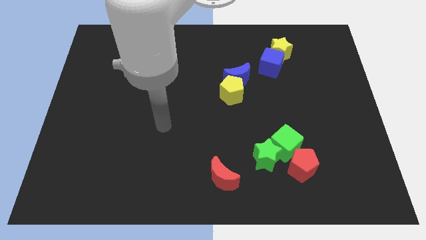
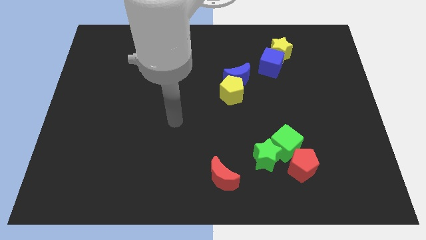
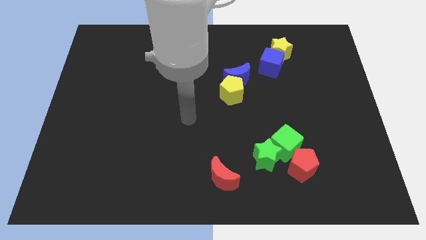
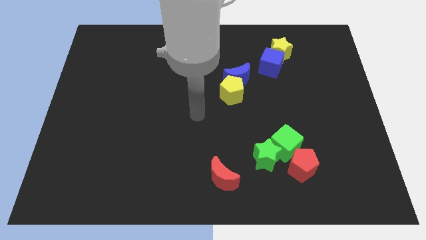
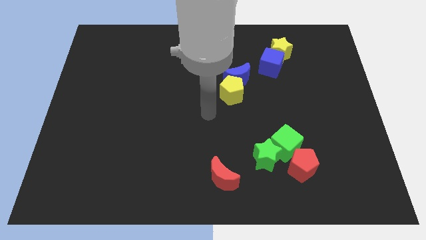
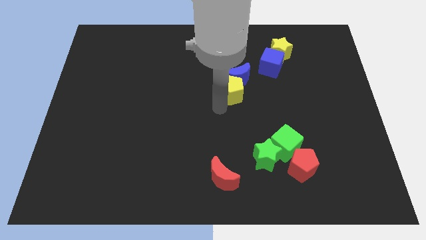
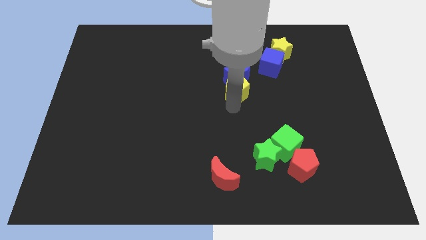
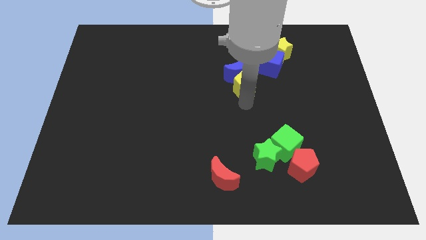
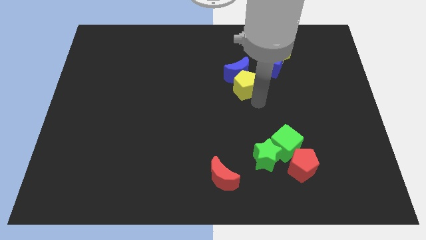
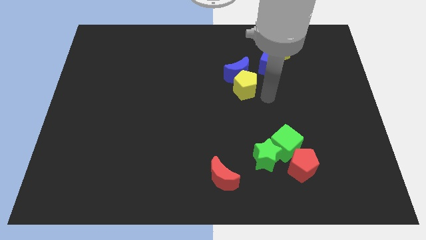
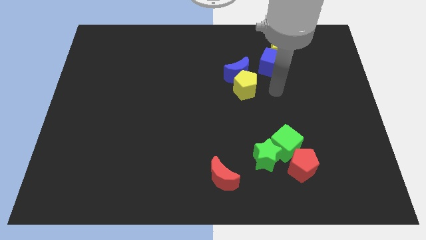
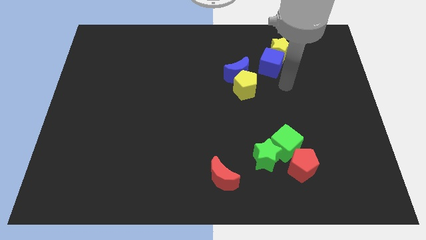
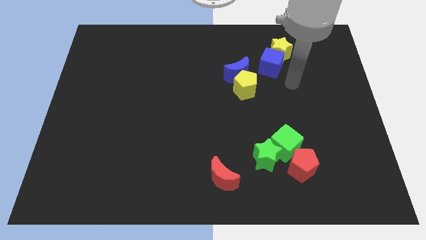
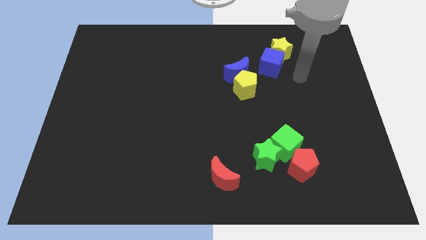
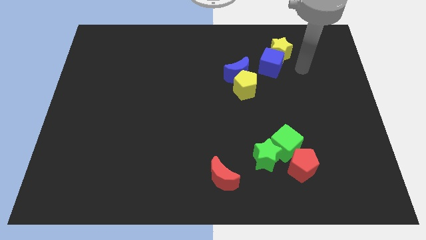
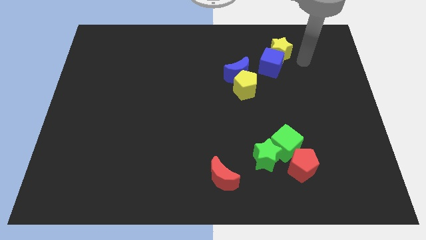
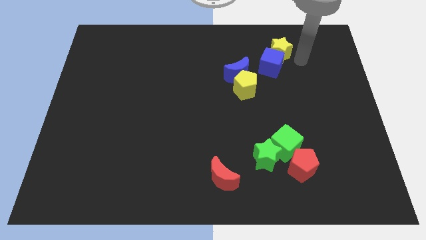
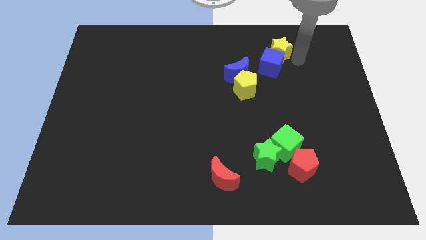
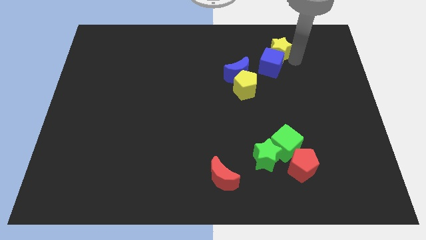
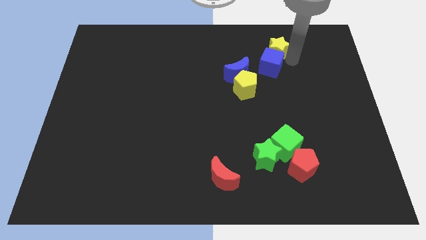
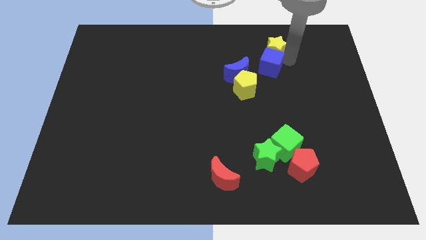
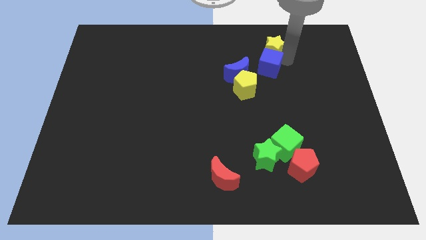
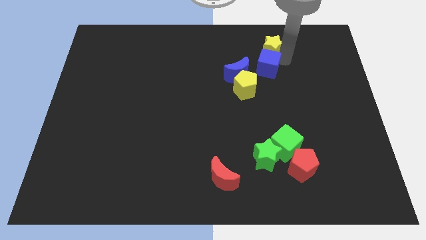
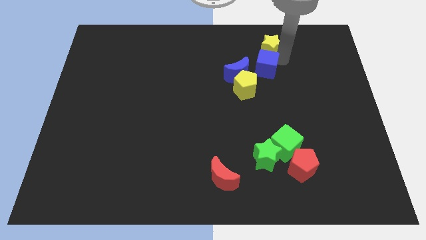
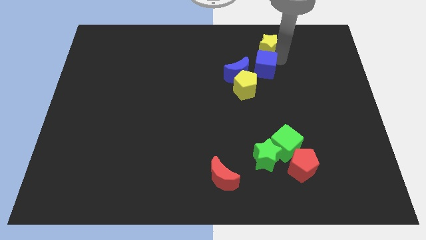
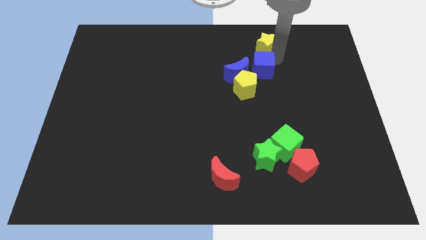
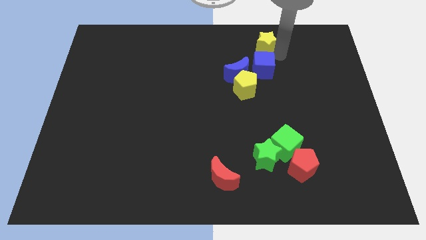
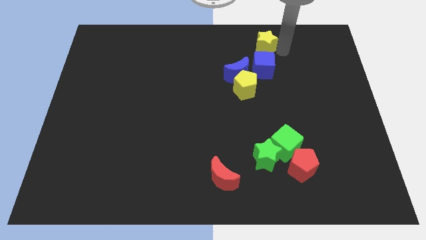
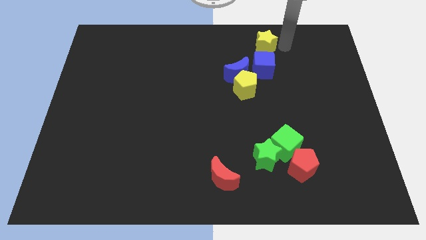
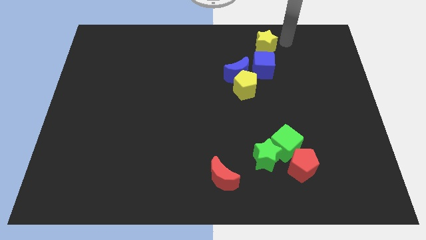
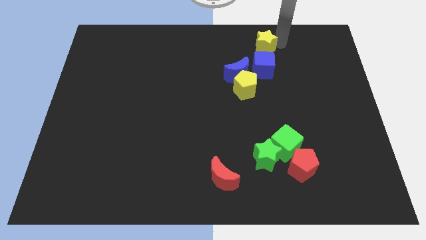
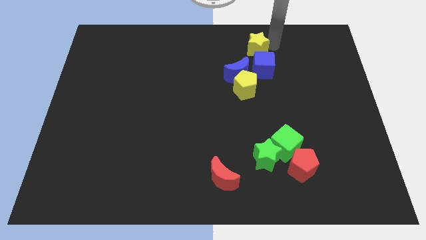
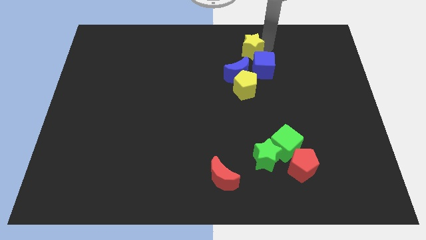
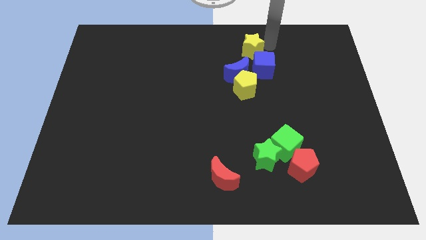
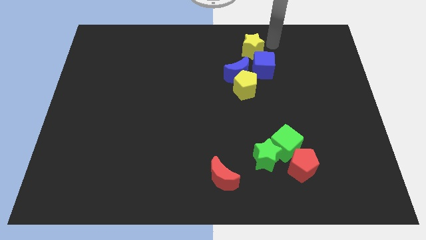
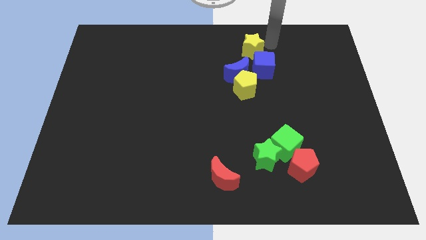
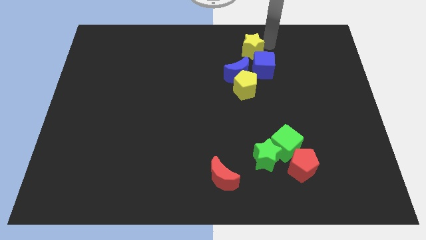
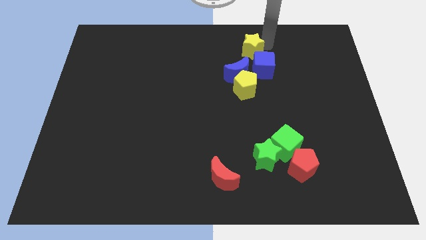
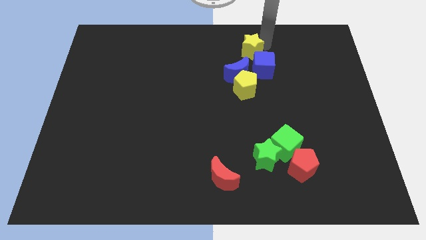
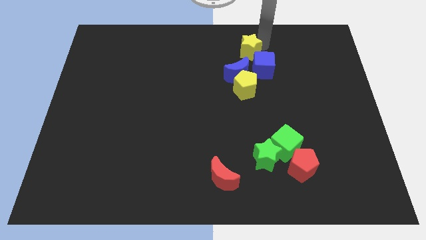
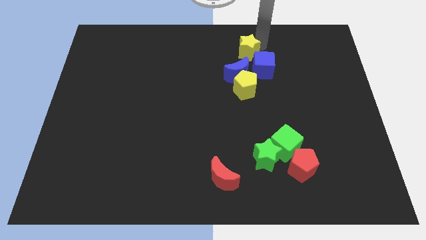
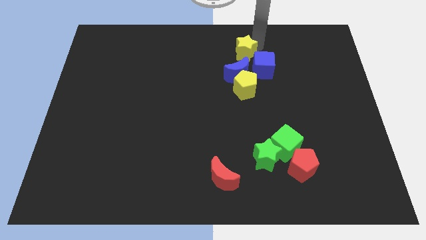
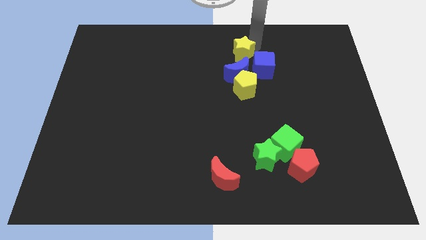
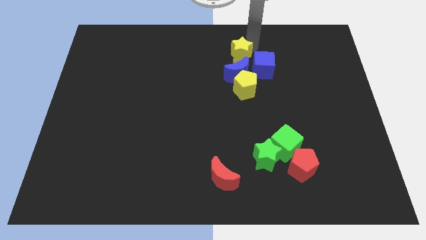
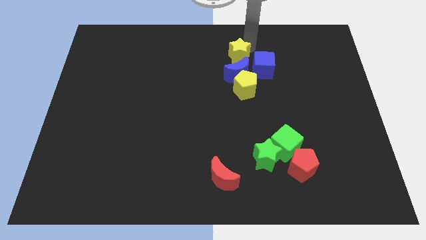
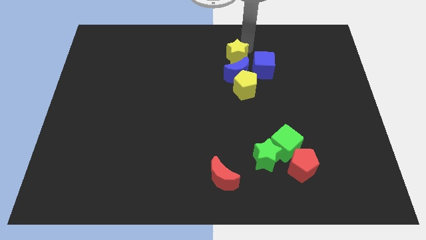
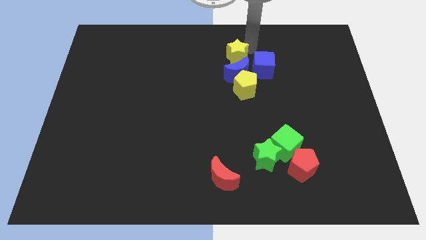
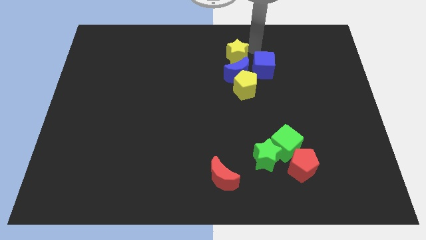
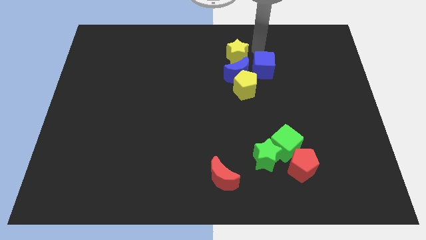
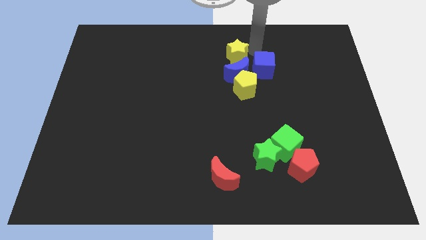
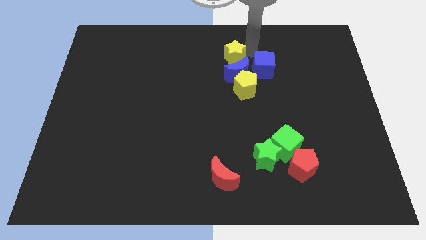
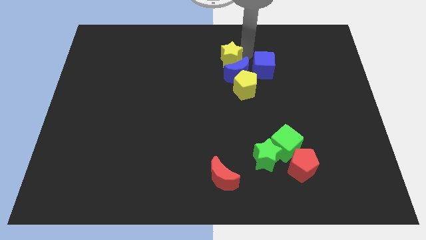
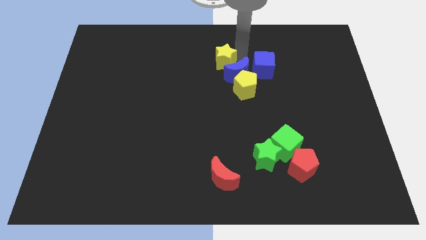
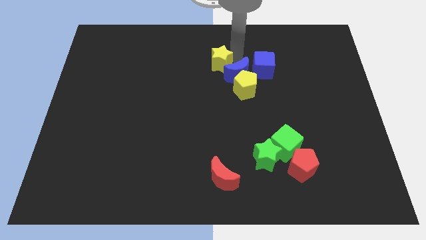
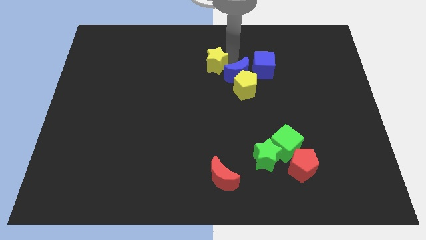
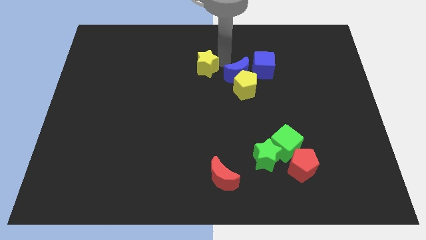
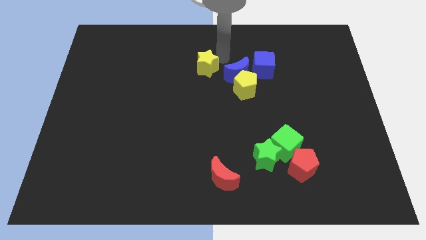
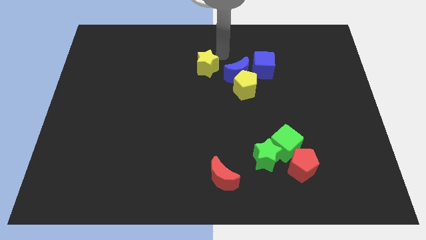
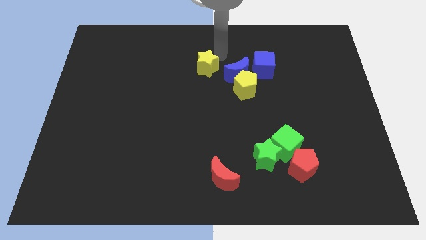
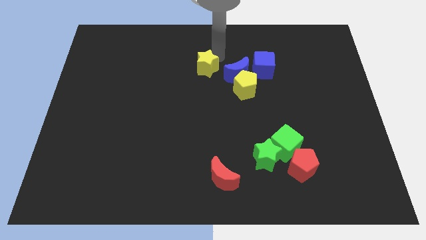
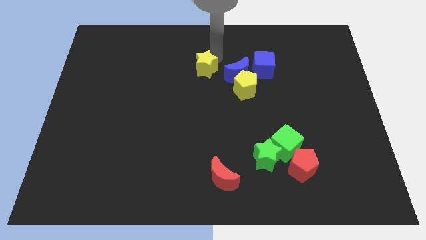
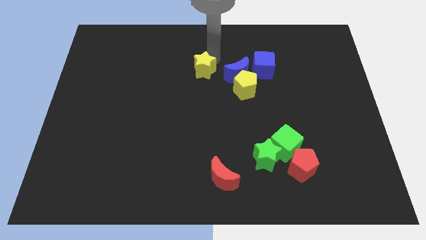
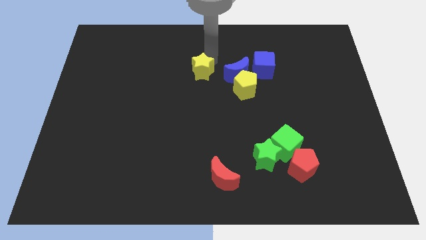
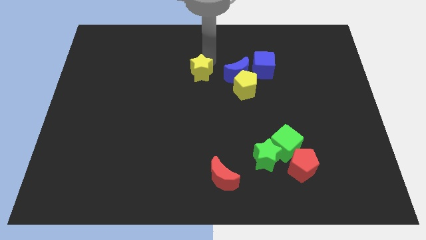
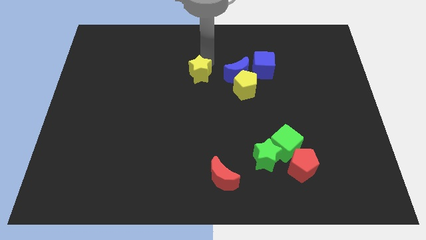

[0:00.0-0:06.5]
slide the yellow star just left of the yellow pentagon

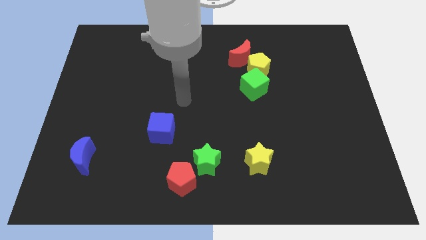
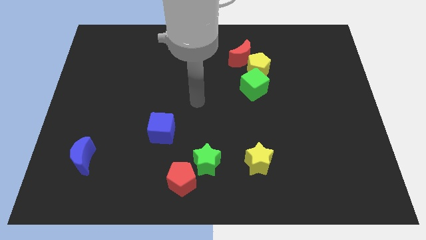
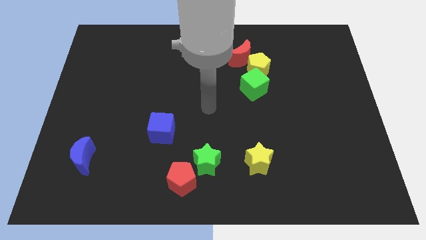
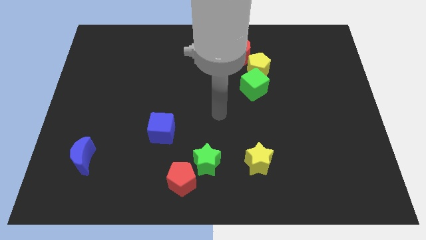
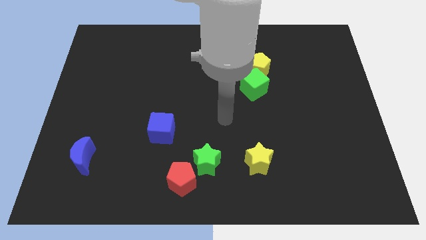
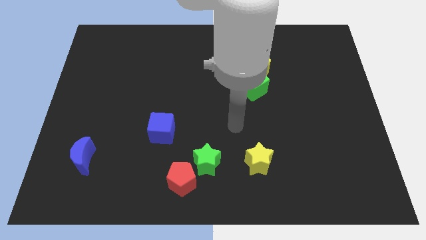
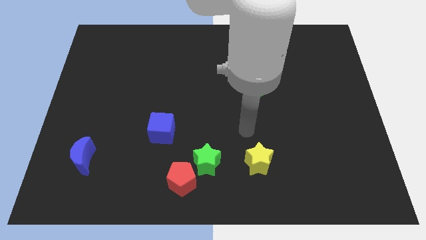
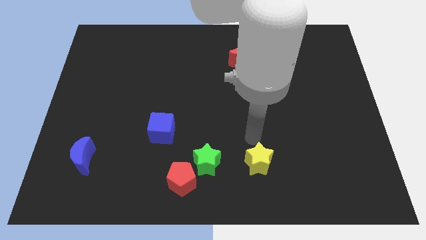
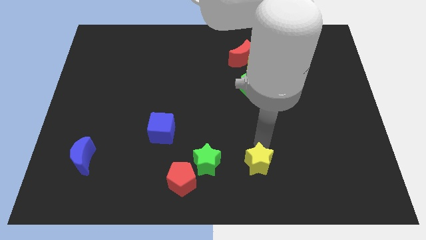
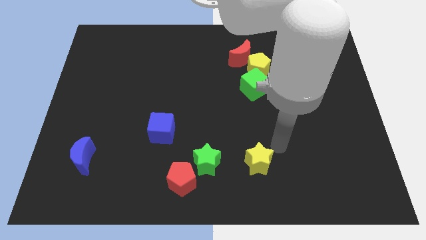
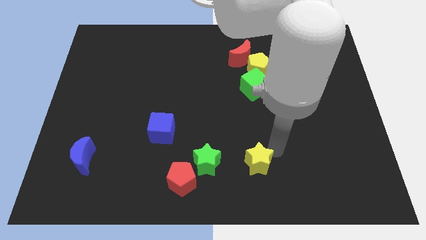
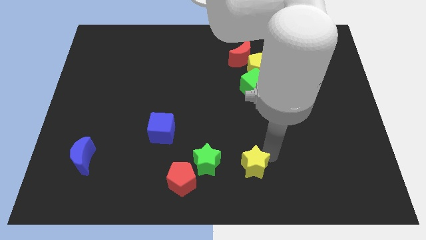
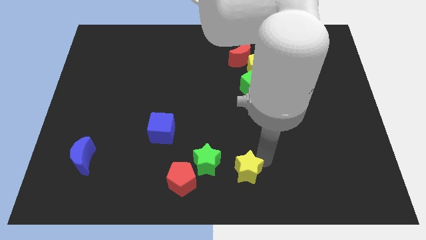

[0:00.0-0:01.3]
slide the yellow star to the bottom right of the green star
